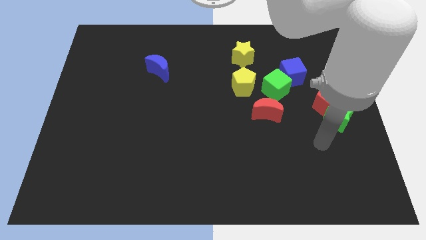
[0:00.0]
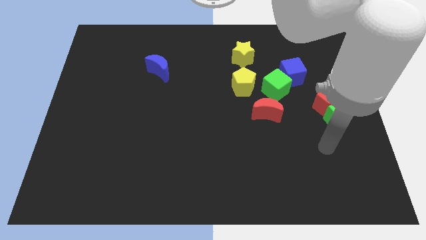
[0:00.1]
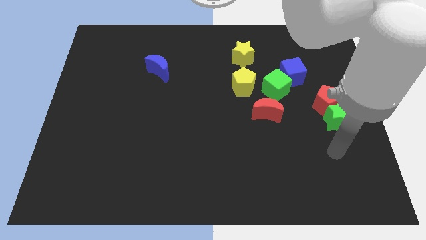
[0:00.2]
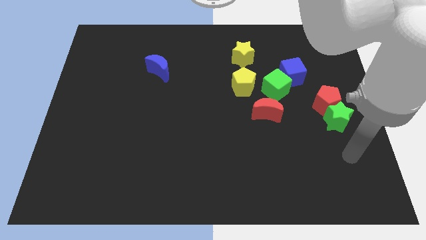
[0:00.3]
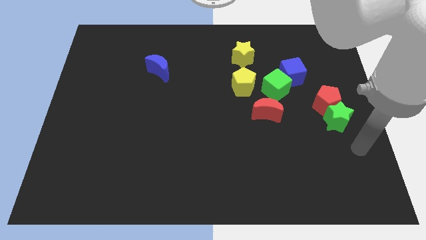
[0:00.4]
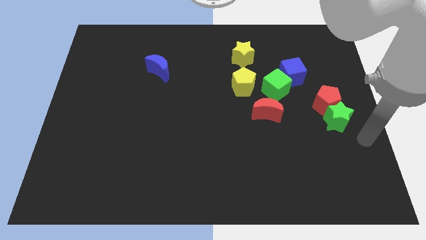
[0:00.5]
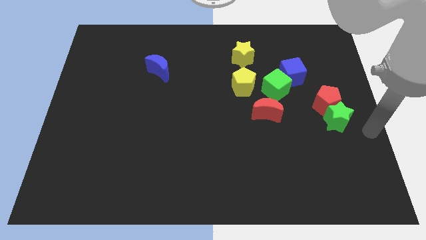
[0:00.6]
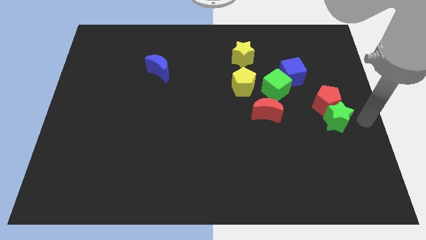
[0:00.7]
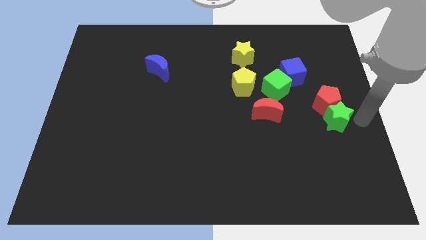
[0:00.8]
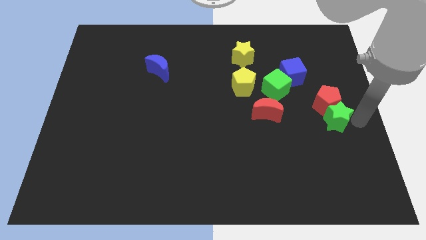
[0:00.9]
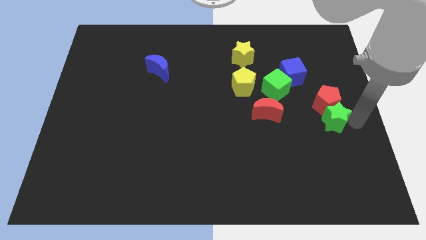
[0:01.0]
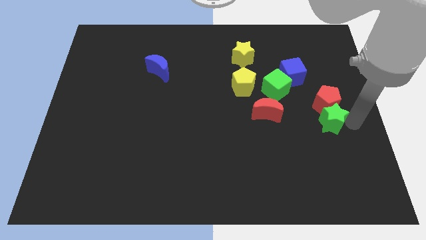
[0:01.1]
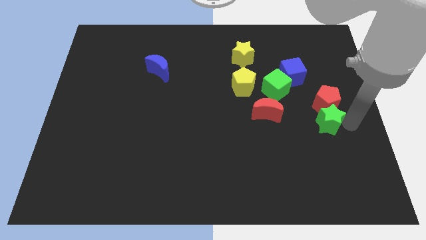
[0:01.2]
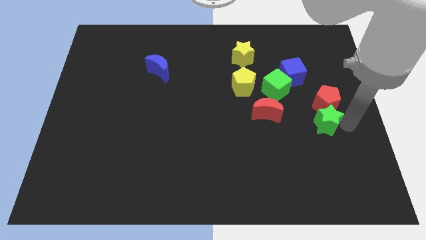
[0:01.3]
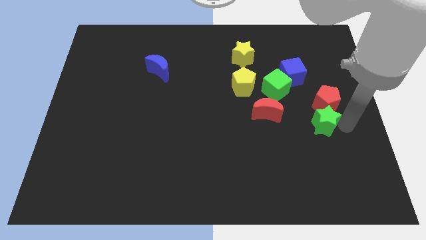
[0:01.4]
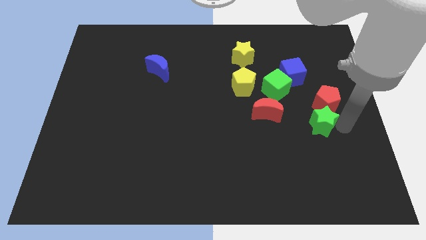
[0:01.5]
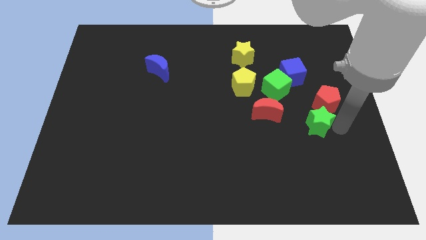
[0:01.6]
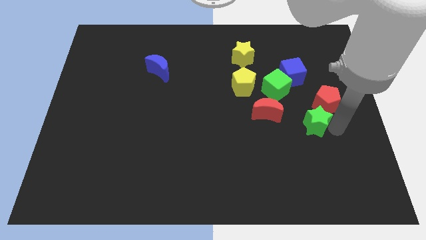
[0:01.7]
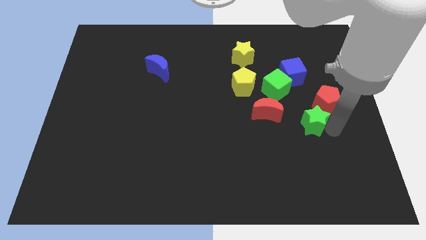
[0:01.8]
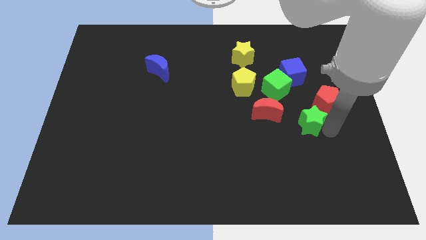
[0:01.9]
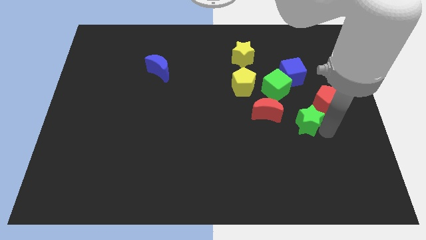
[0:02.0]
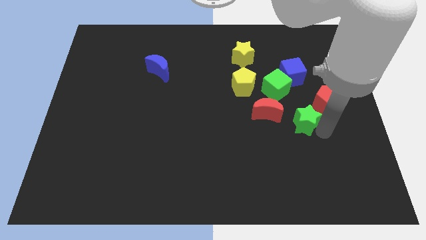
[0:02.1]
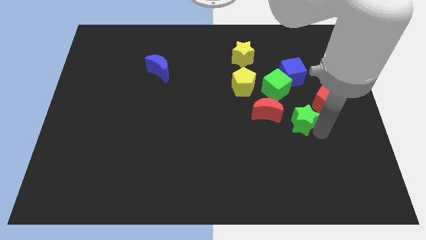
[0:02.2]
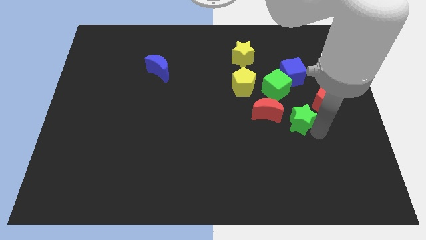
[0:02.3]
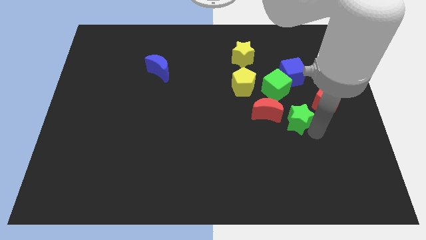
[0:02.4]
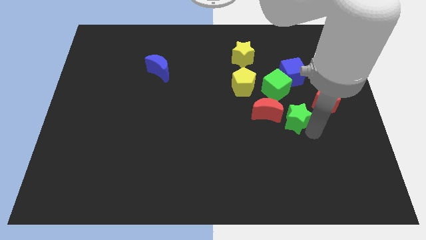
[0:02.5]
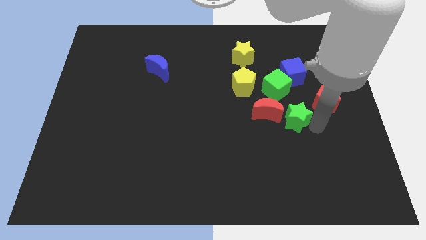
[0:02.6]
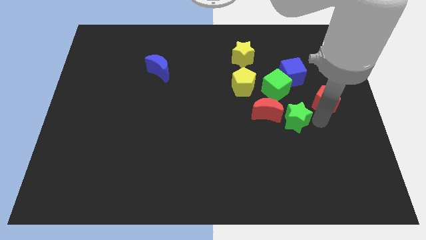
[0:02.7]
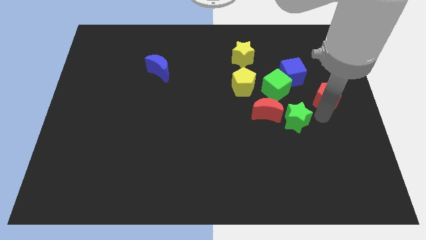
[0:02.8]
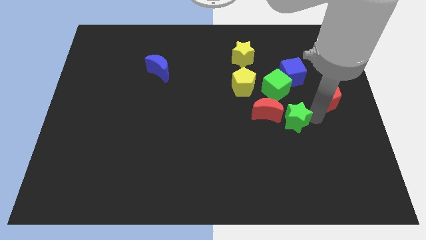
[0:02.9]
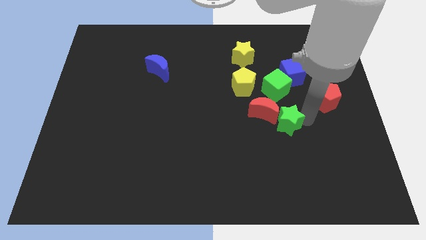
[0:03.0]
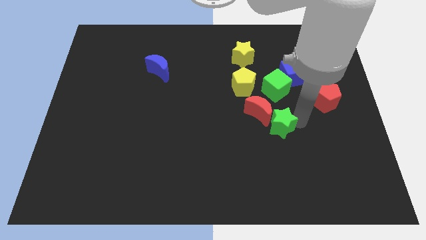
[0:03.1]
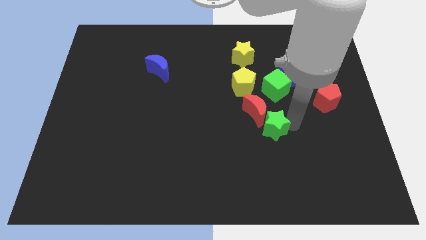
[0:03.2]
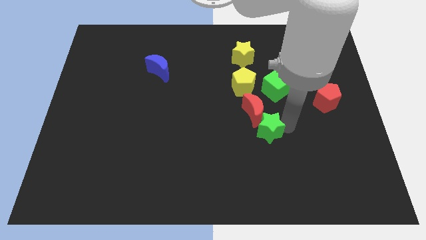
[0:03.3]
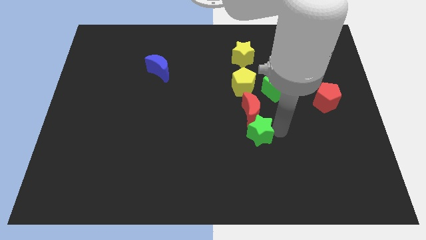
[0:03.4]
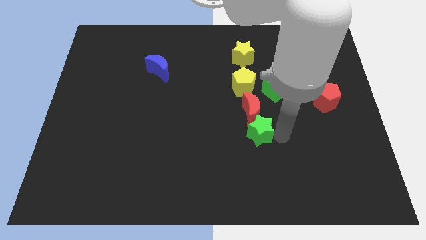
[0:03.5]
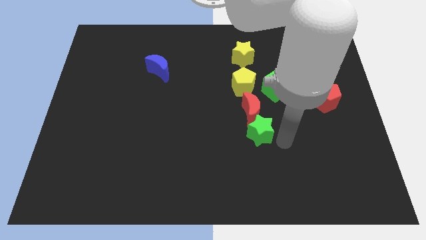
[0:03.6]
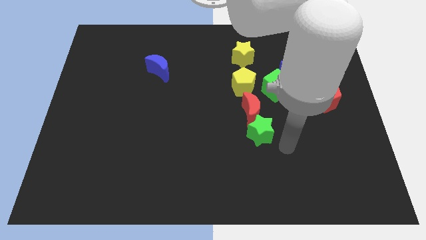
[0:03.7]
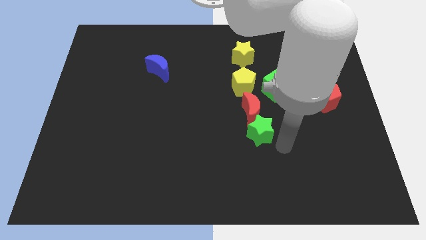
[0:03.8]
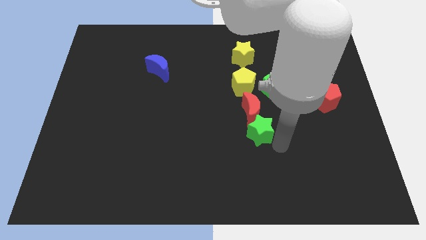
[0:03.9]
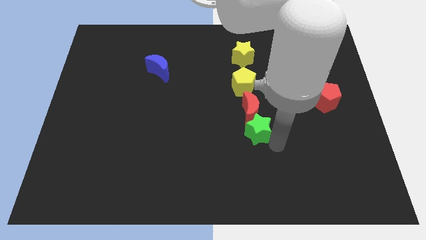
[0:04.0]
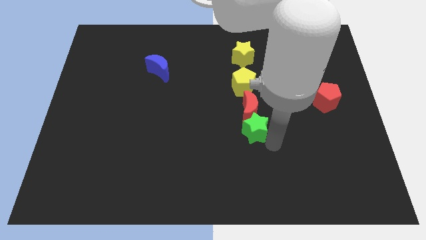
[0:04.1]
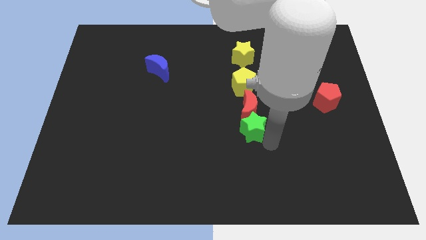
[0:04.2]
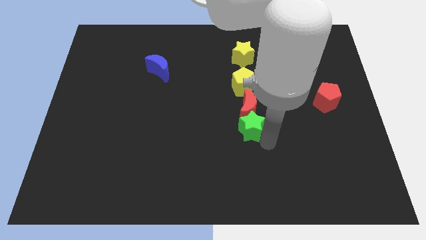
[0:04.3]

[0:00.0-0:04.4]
slide the green star to the left

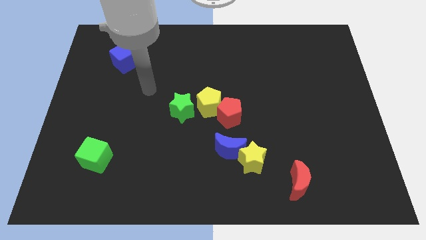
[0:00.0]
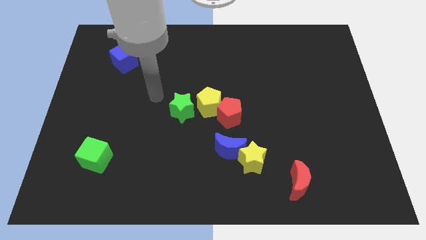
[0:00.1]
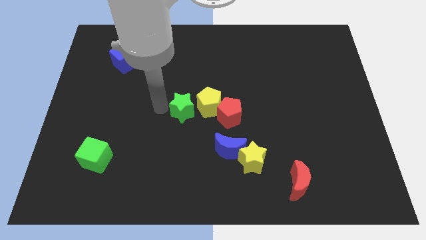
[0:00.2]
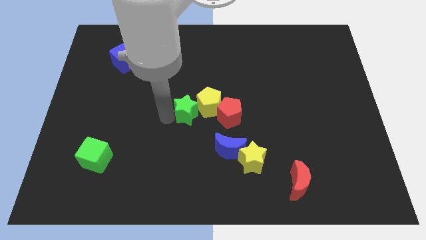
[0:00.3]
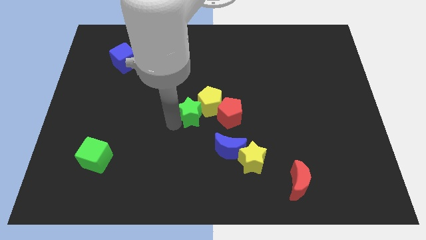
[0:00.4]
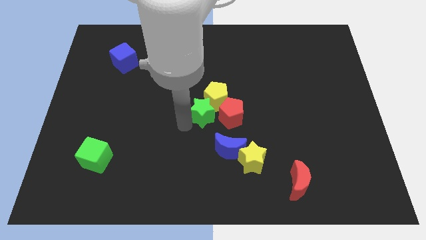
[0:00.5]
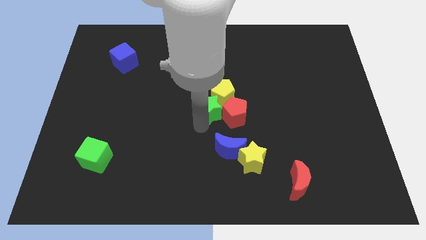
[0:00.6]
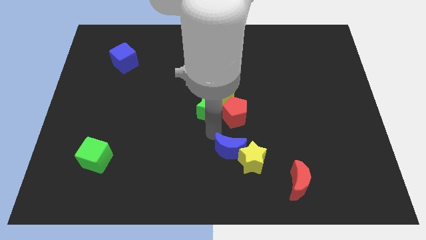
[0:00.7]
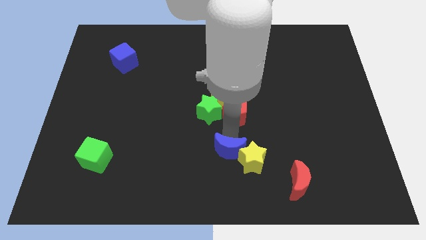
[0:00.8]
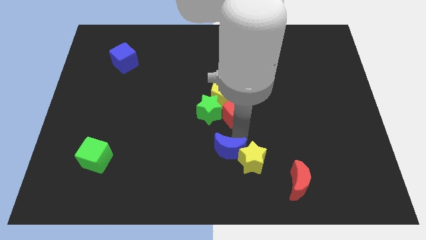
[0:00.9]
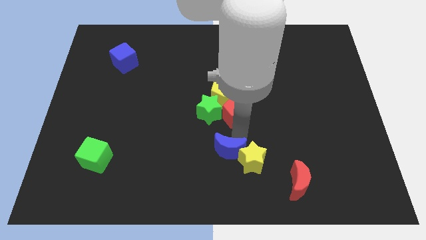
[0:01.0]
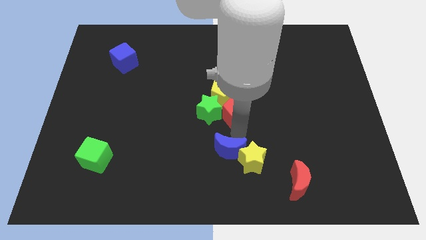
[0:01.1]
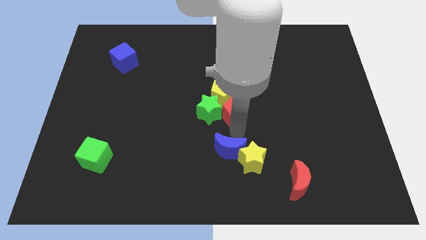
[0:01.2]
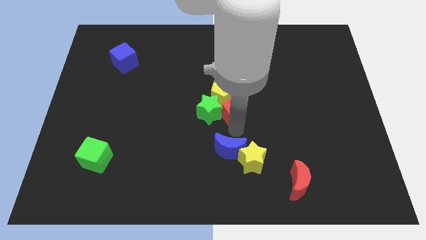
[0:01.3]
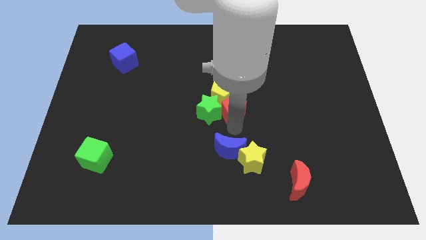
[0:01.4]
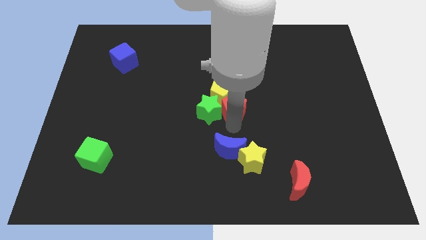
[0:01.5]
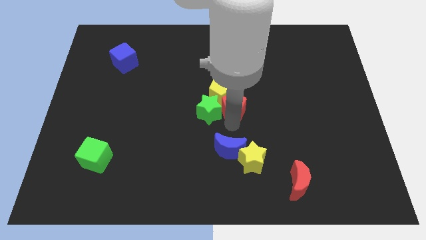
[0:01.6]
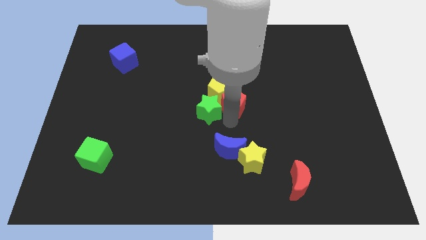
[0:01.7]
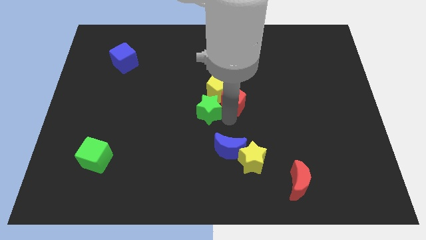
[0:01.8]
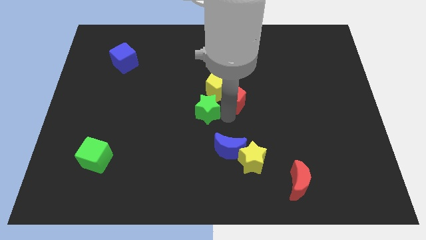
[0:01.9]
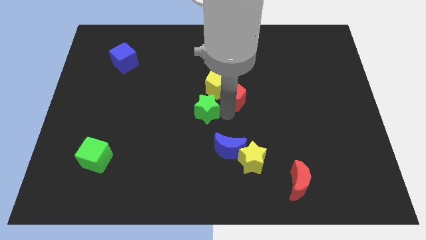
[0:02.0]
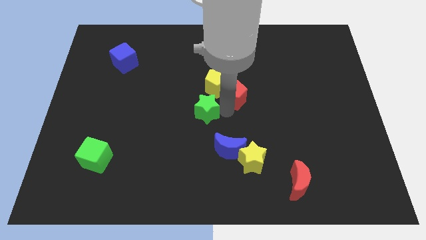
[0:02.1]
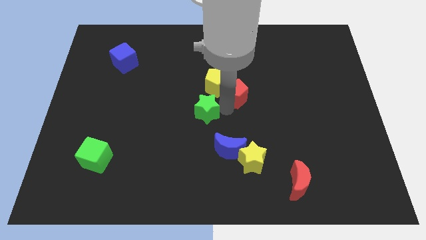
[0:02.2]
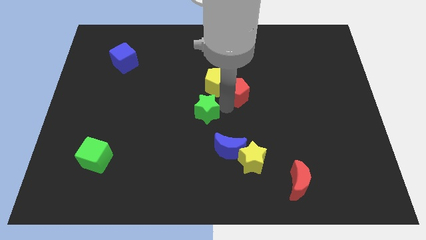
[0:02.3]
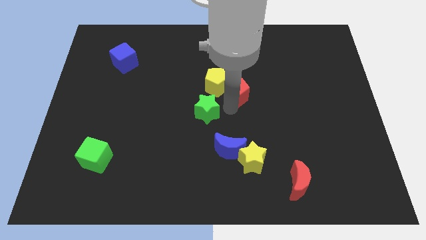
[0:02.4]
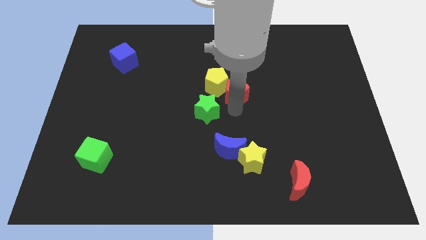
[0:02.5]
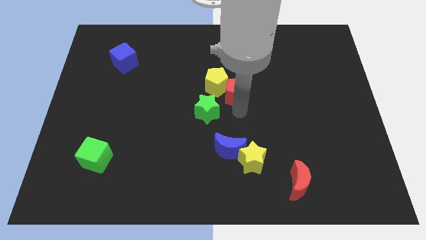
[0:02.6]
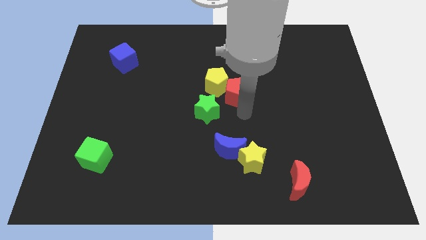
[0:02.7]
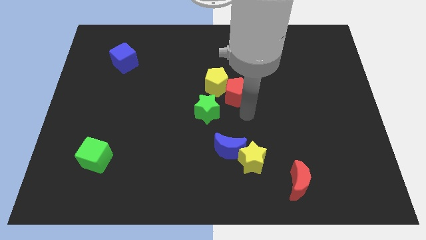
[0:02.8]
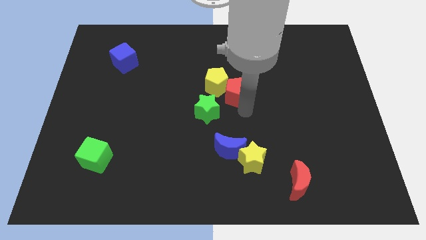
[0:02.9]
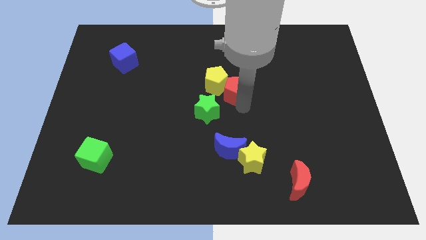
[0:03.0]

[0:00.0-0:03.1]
slide the red pentagon slightly upwards

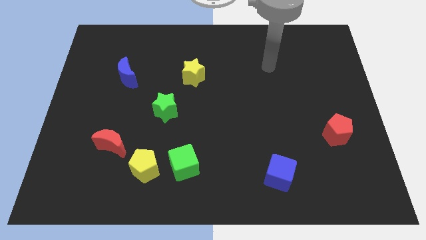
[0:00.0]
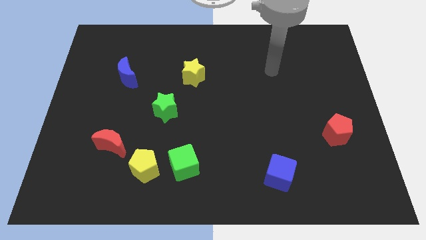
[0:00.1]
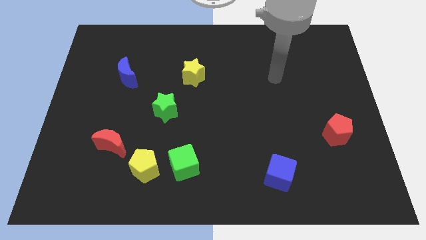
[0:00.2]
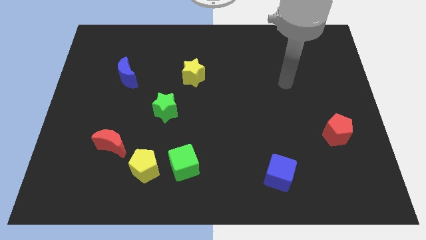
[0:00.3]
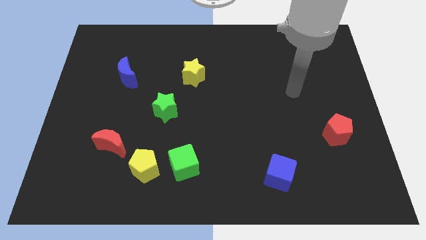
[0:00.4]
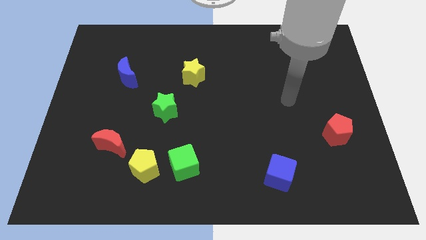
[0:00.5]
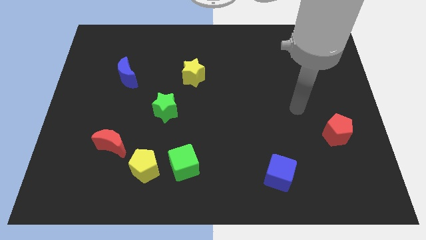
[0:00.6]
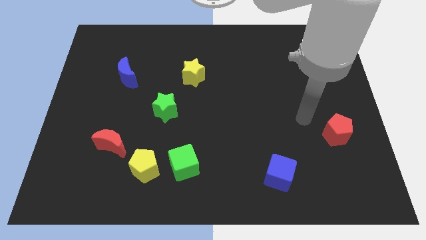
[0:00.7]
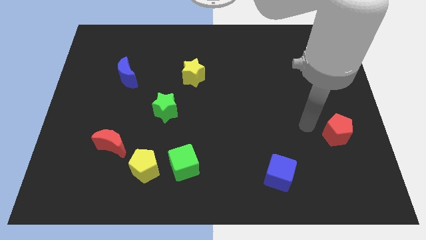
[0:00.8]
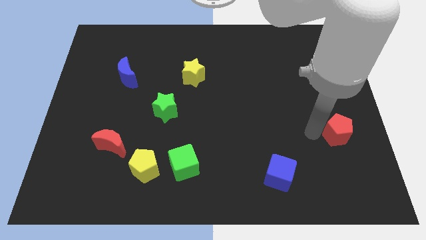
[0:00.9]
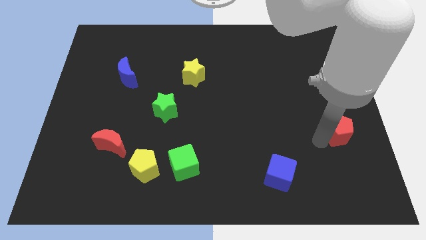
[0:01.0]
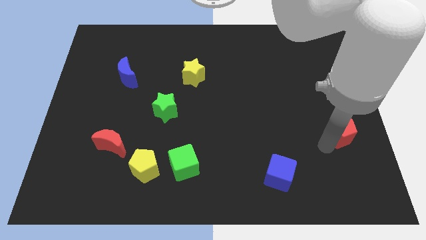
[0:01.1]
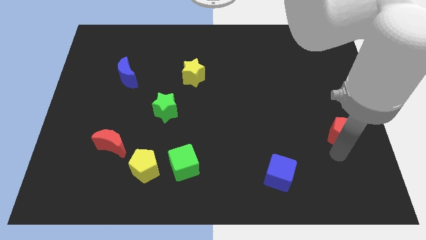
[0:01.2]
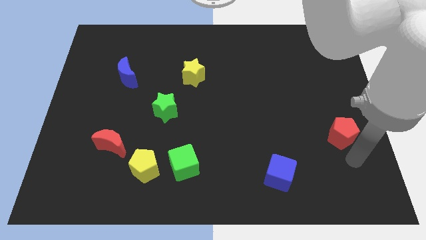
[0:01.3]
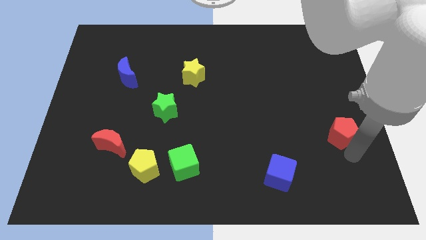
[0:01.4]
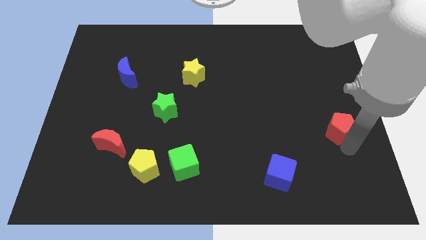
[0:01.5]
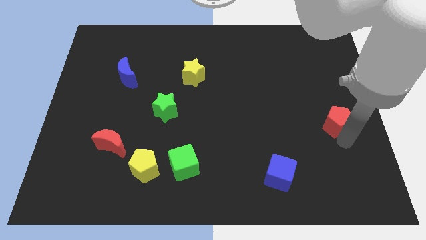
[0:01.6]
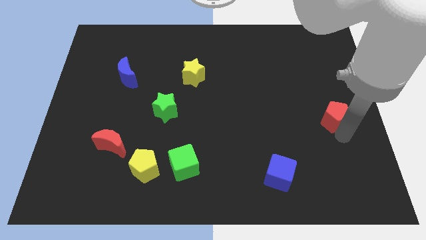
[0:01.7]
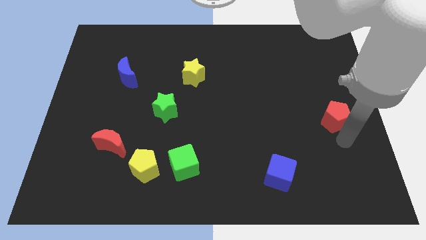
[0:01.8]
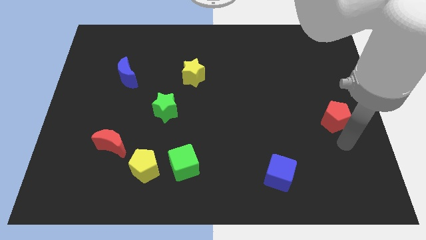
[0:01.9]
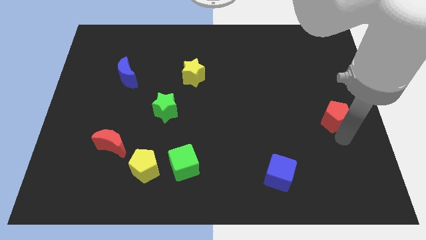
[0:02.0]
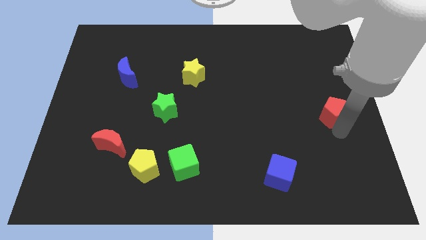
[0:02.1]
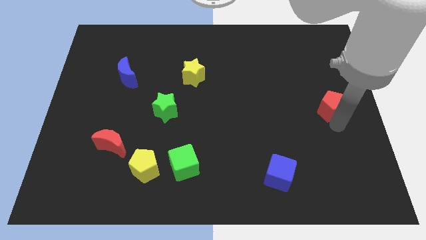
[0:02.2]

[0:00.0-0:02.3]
move the red pentagon a bit upwards
